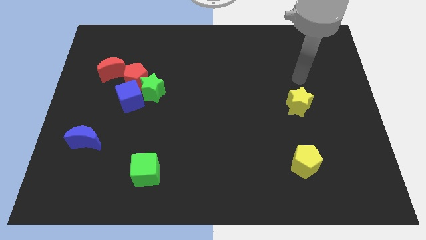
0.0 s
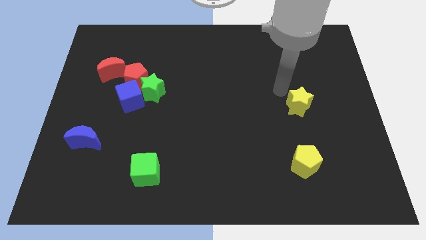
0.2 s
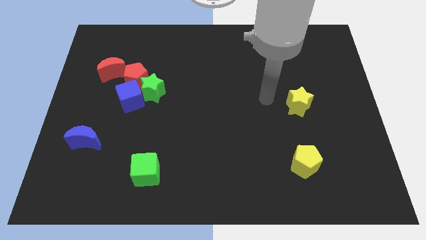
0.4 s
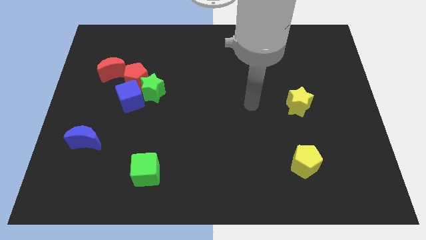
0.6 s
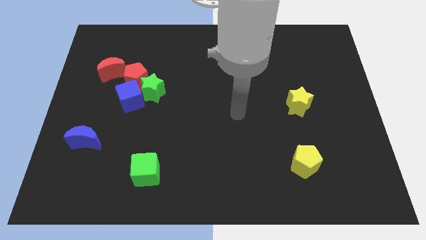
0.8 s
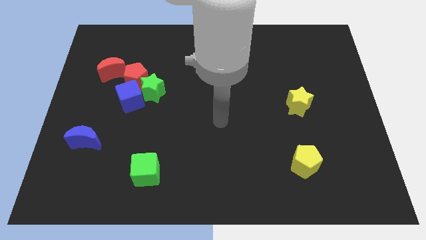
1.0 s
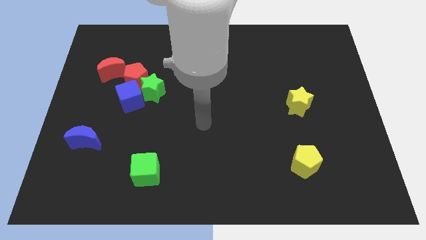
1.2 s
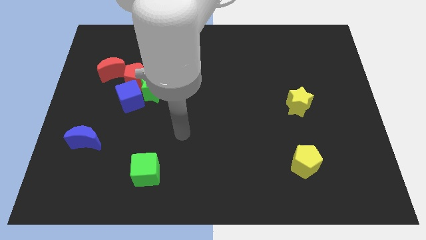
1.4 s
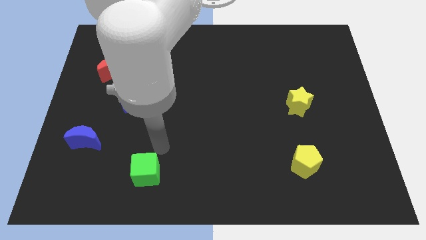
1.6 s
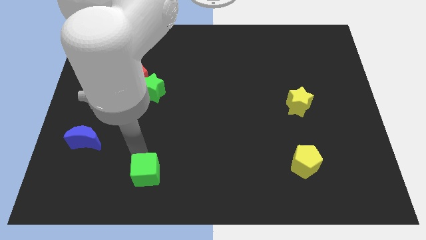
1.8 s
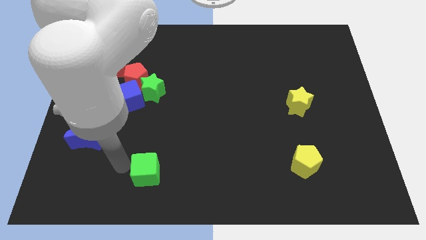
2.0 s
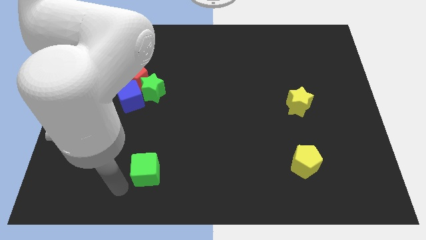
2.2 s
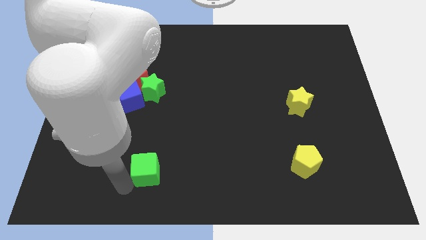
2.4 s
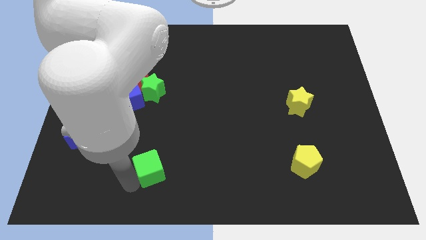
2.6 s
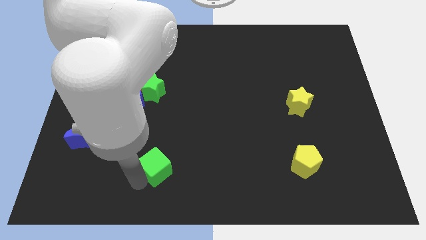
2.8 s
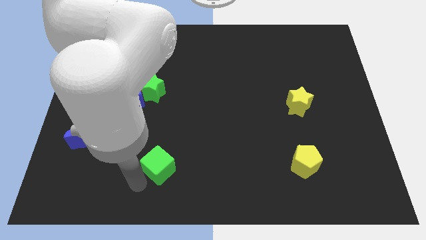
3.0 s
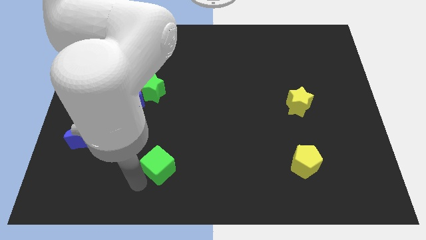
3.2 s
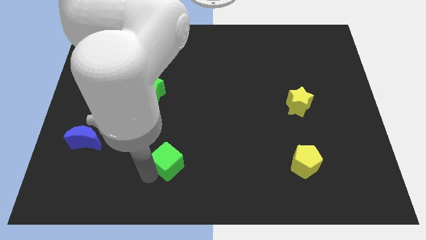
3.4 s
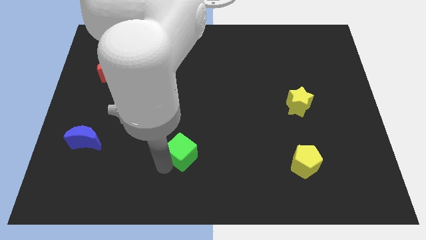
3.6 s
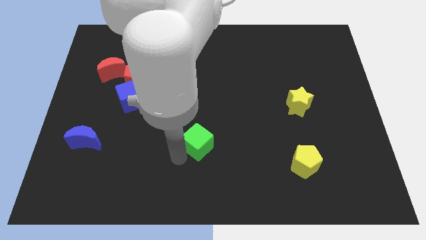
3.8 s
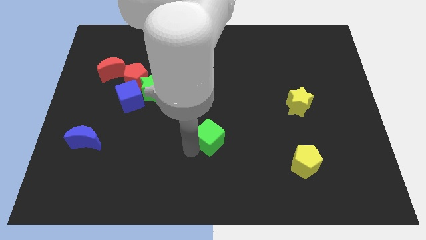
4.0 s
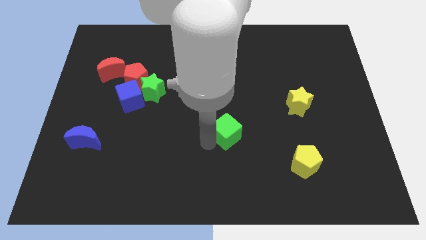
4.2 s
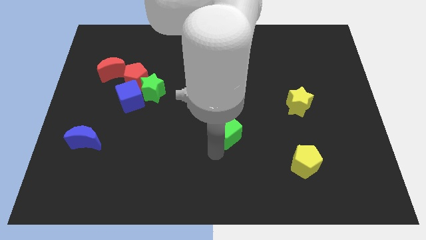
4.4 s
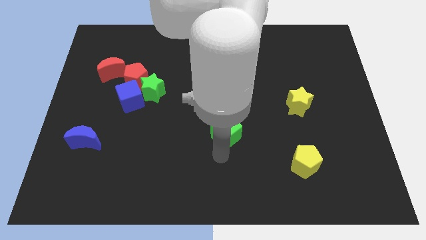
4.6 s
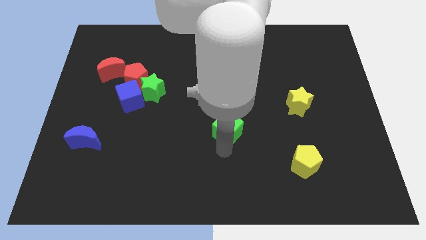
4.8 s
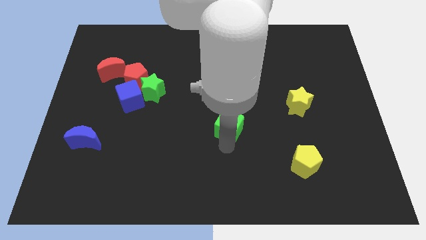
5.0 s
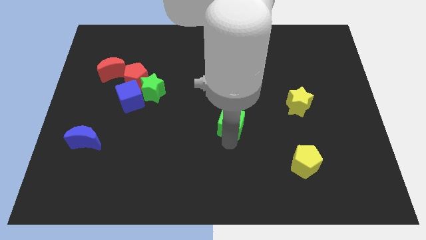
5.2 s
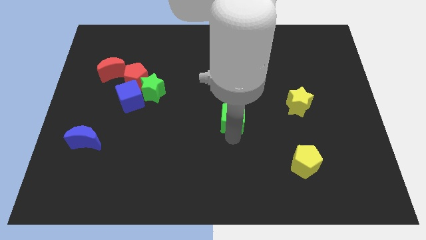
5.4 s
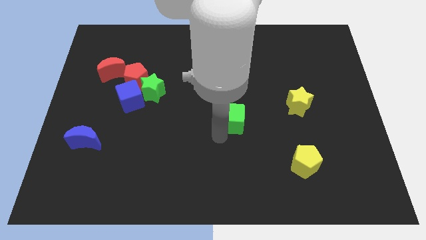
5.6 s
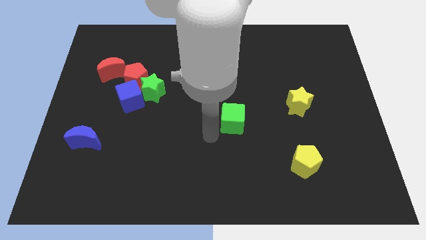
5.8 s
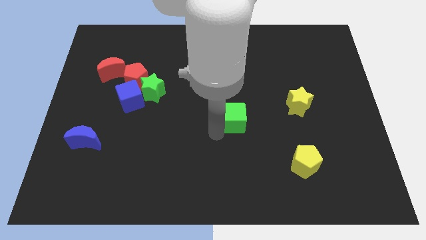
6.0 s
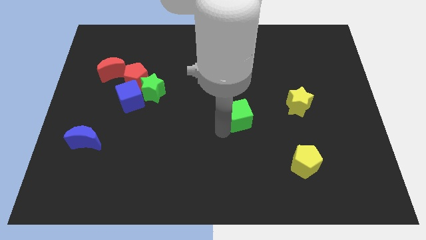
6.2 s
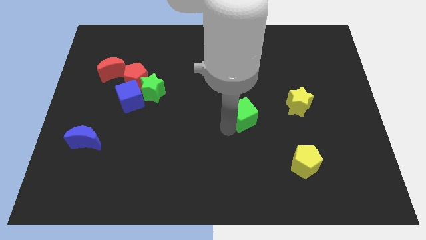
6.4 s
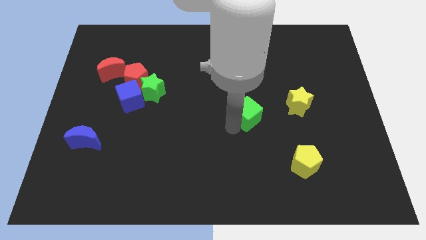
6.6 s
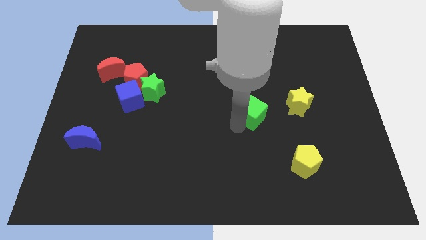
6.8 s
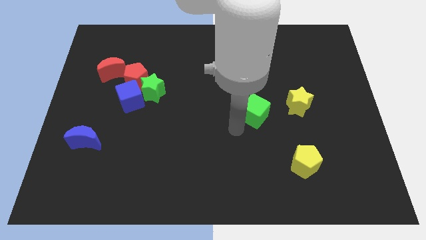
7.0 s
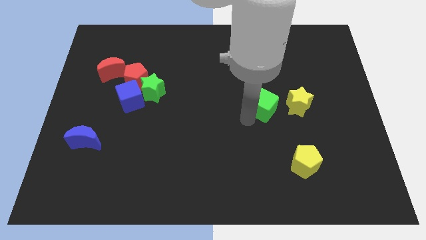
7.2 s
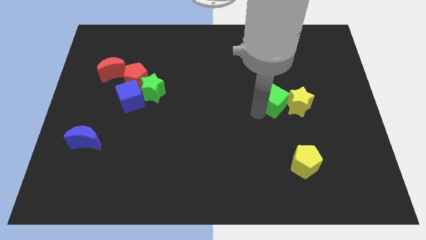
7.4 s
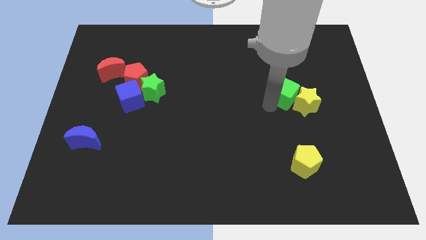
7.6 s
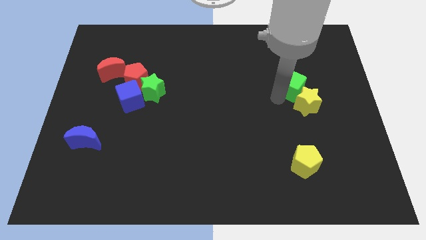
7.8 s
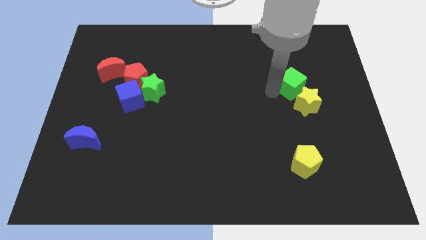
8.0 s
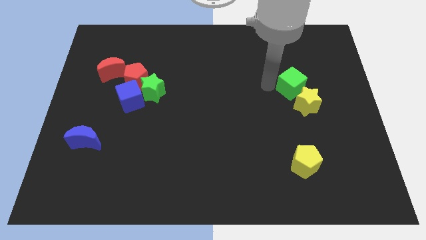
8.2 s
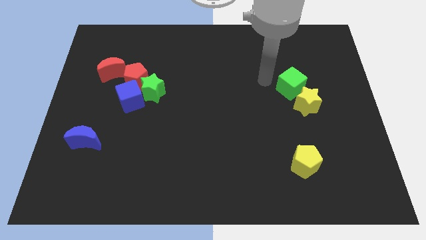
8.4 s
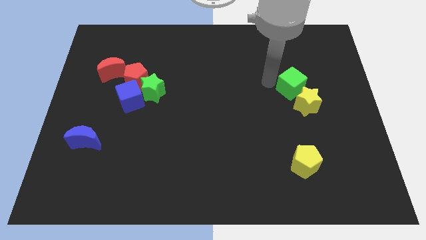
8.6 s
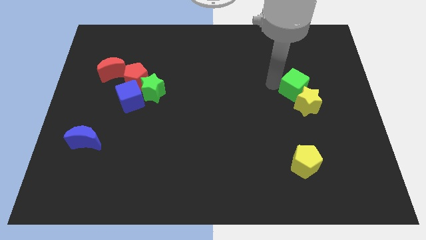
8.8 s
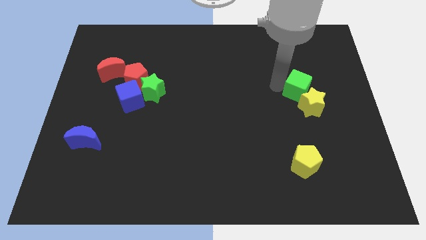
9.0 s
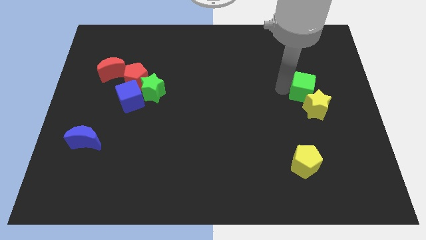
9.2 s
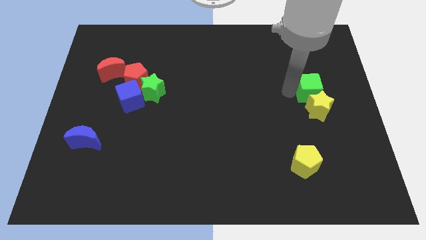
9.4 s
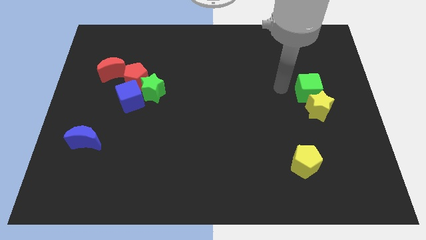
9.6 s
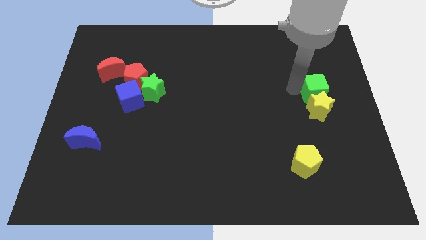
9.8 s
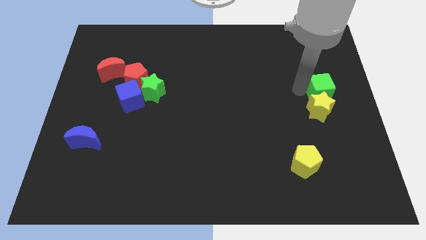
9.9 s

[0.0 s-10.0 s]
slide the green cube to the right side of the board

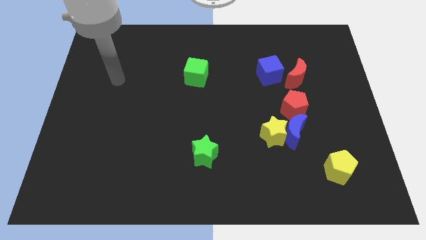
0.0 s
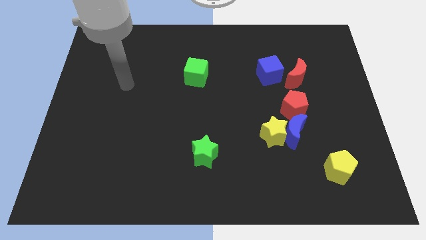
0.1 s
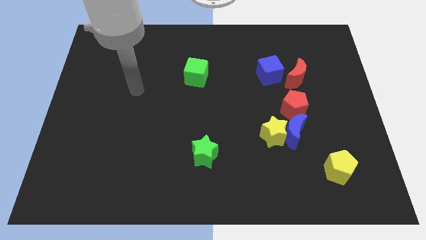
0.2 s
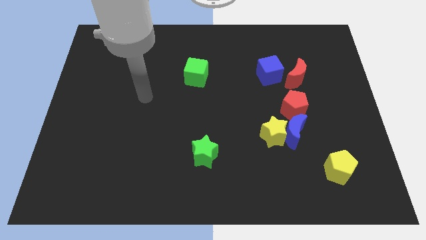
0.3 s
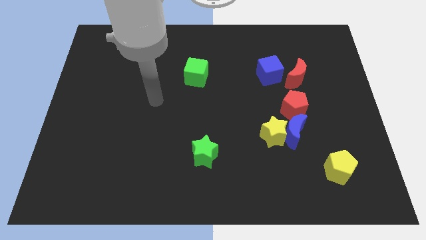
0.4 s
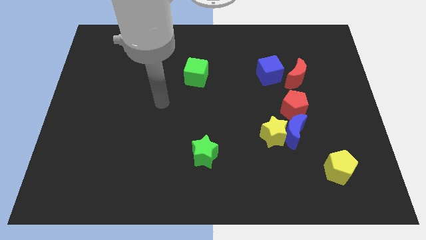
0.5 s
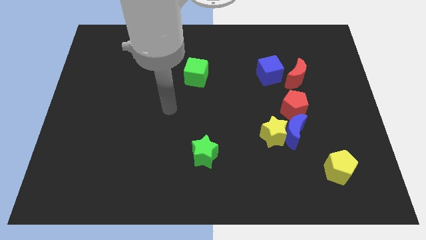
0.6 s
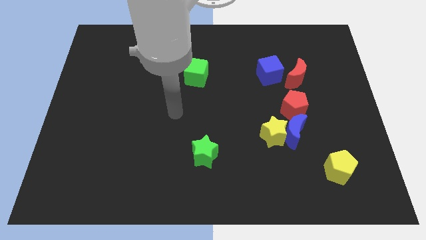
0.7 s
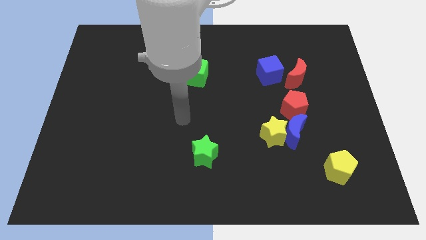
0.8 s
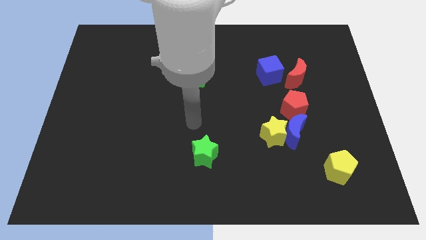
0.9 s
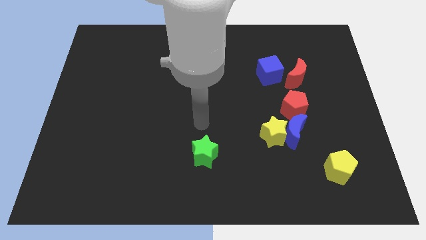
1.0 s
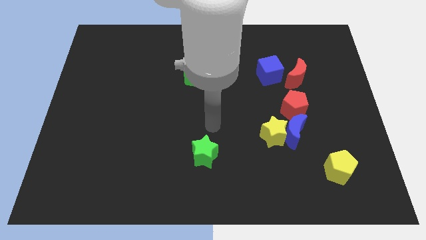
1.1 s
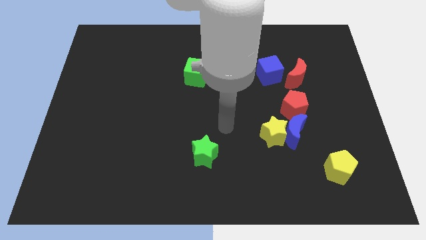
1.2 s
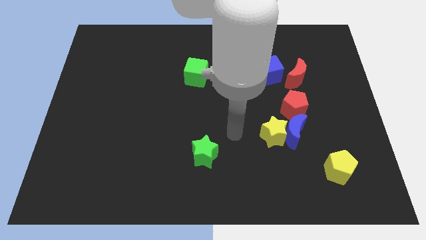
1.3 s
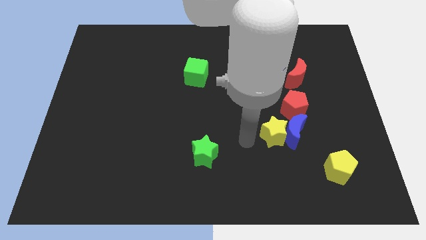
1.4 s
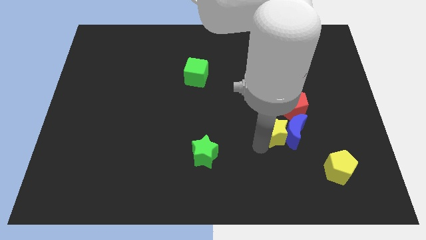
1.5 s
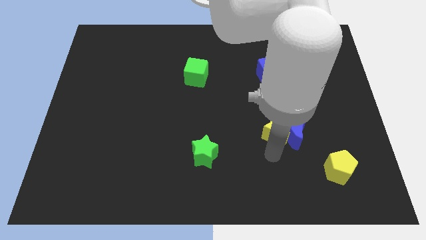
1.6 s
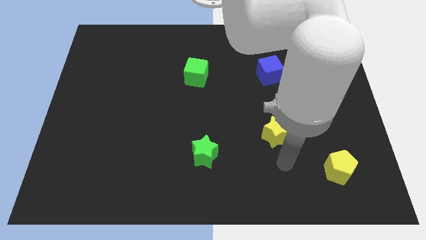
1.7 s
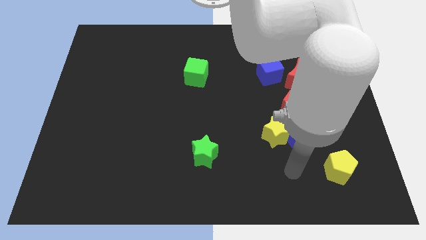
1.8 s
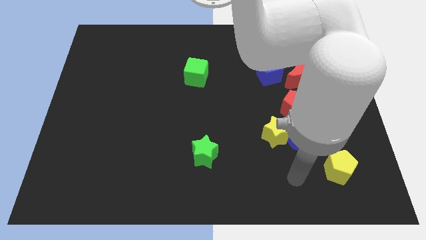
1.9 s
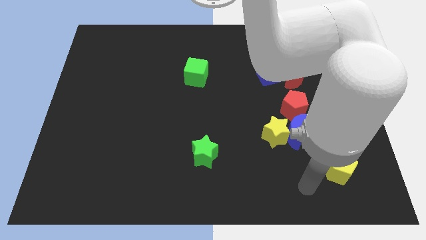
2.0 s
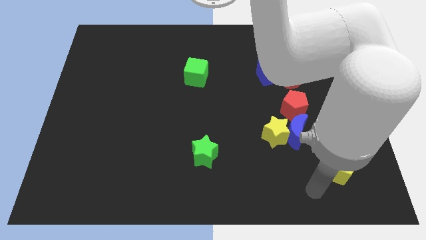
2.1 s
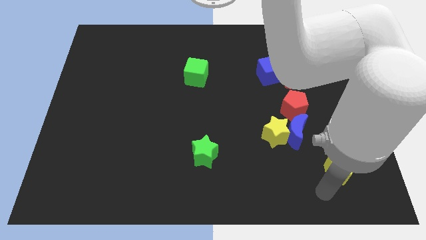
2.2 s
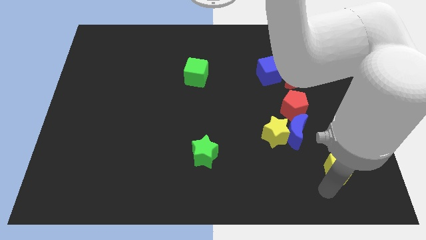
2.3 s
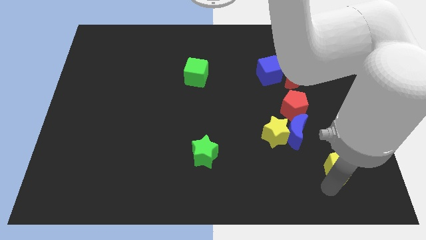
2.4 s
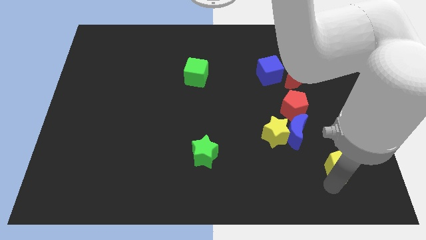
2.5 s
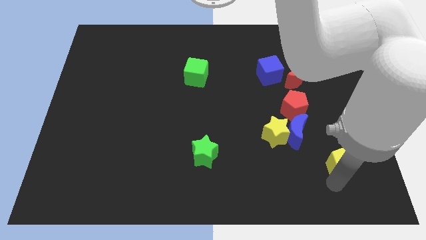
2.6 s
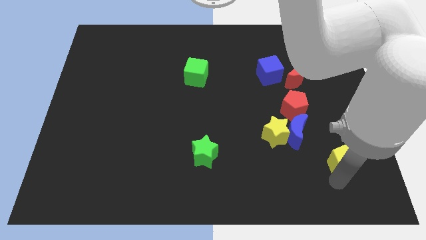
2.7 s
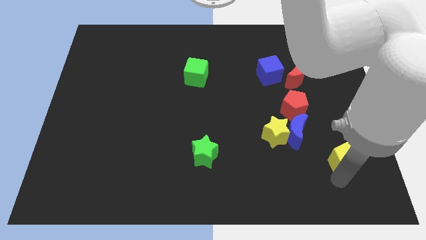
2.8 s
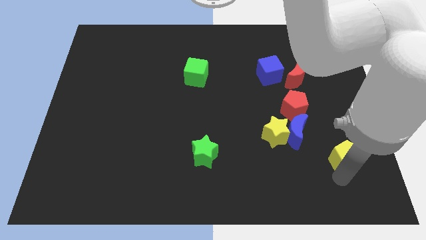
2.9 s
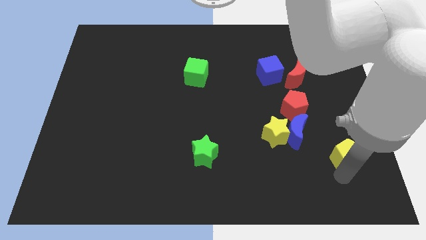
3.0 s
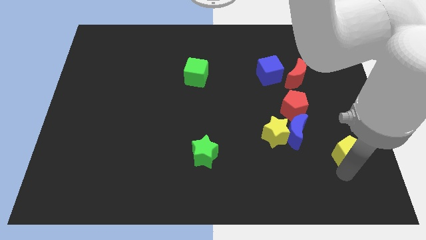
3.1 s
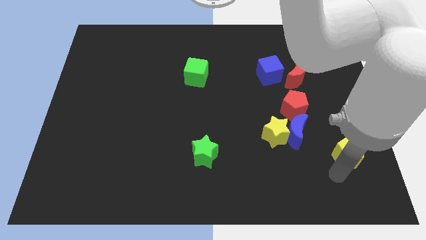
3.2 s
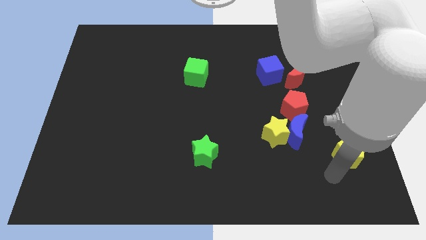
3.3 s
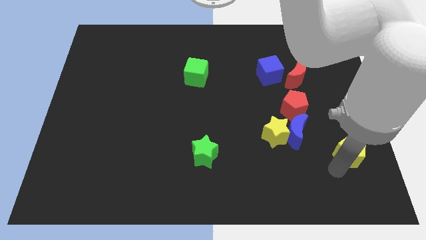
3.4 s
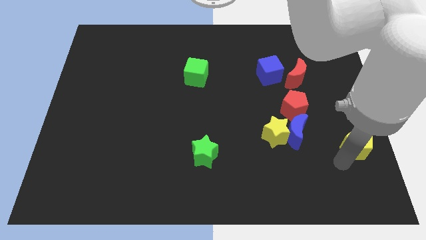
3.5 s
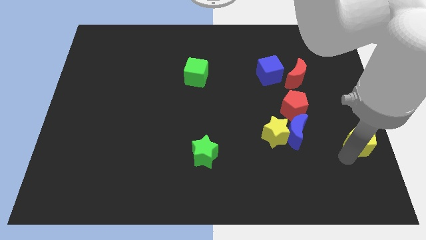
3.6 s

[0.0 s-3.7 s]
move the yellow pentagon to the center right
